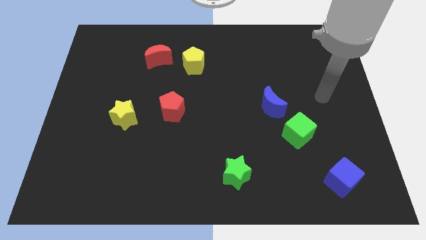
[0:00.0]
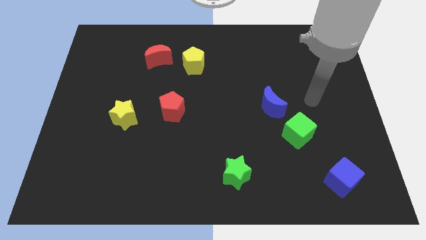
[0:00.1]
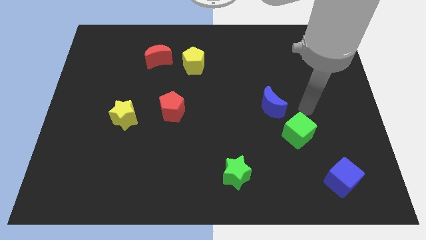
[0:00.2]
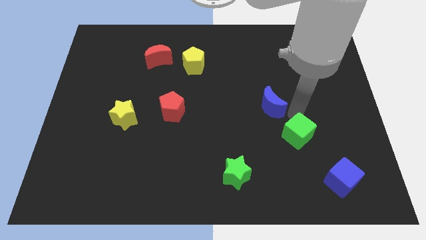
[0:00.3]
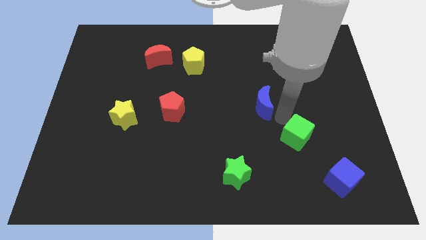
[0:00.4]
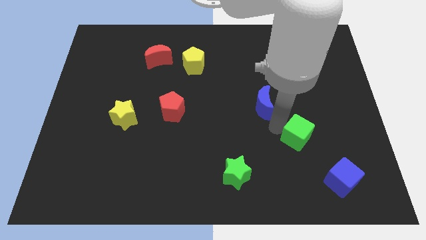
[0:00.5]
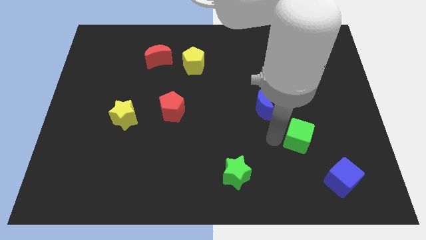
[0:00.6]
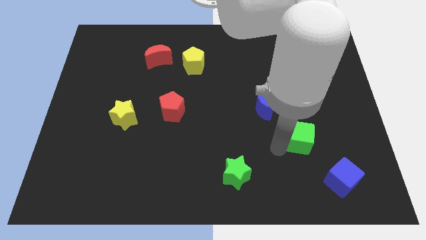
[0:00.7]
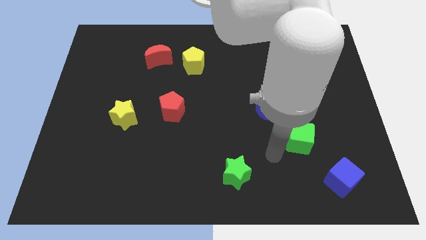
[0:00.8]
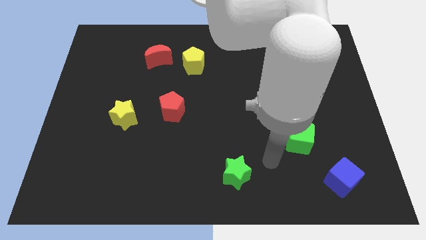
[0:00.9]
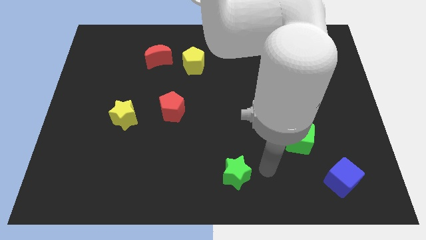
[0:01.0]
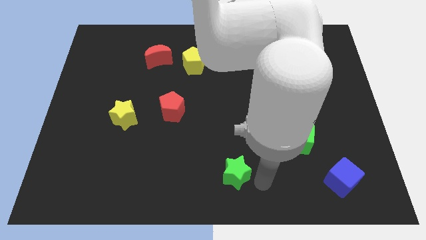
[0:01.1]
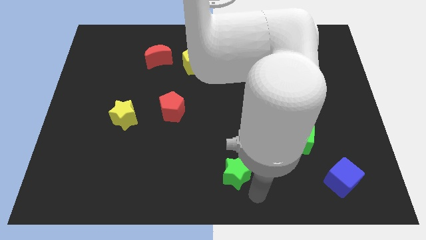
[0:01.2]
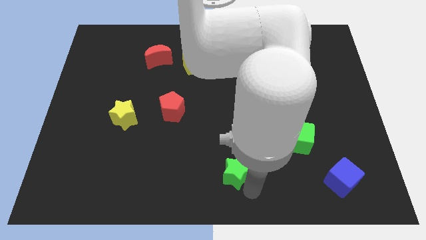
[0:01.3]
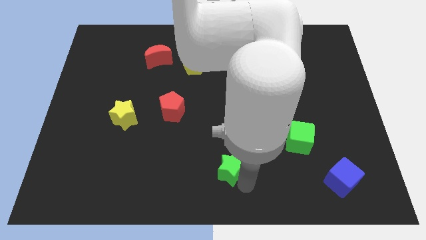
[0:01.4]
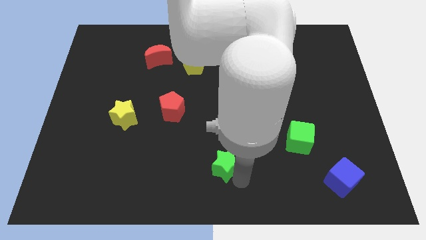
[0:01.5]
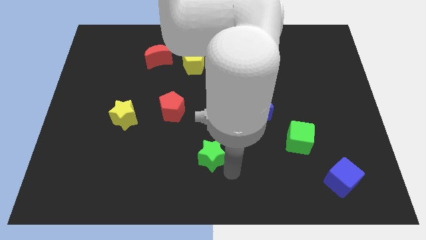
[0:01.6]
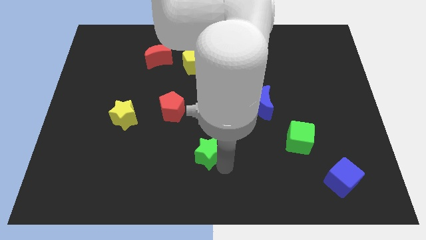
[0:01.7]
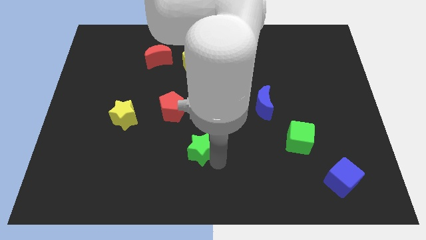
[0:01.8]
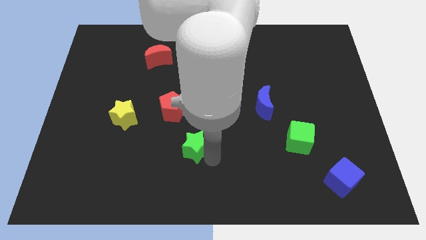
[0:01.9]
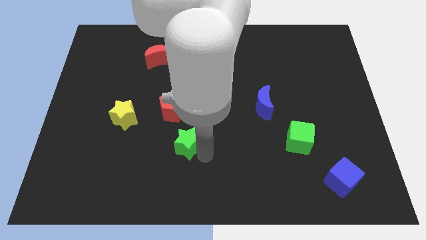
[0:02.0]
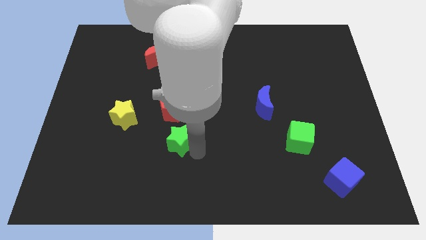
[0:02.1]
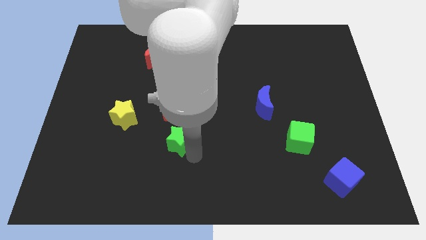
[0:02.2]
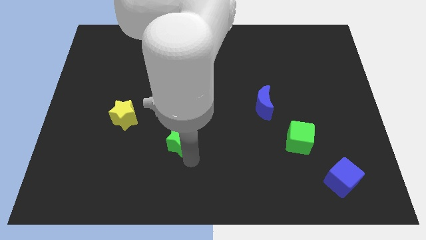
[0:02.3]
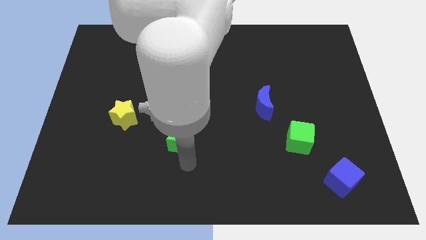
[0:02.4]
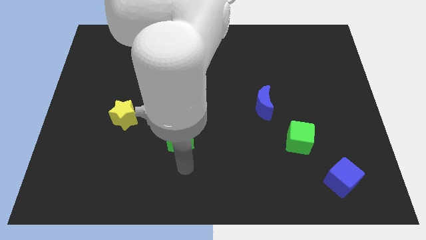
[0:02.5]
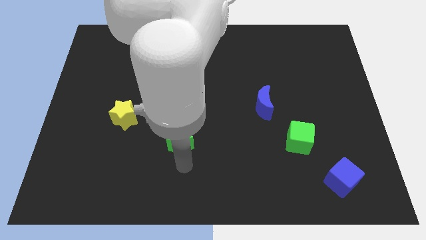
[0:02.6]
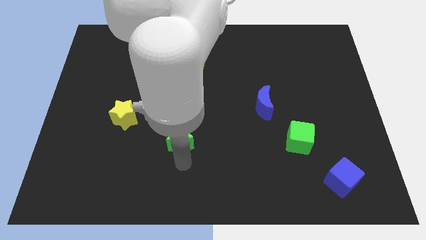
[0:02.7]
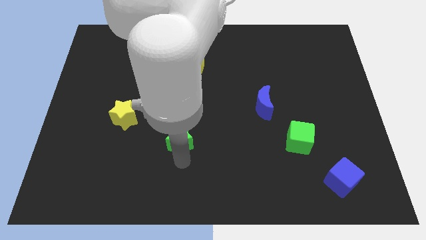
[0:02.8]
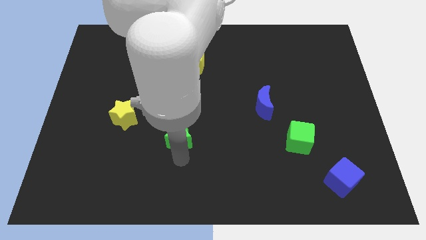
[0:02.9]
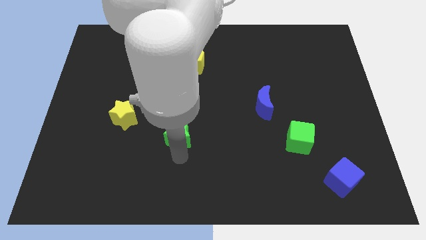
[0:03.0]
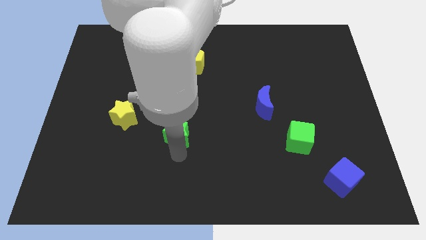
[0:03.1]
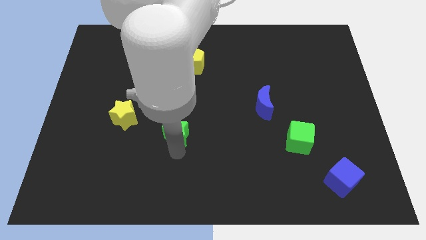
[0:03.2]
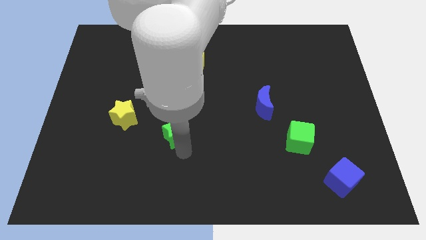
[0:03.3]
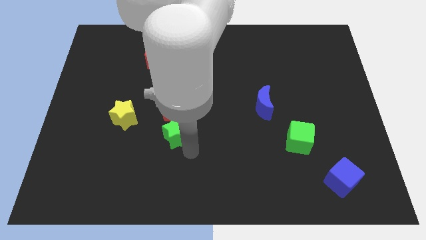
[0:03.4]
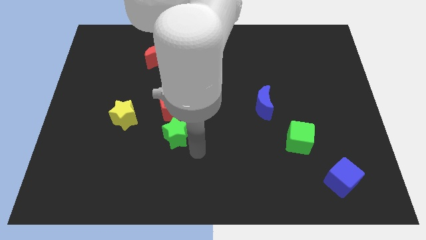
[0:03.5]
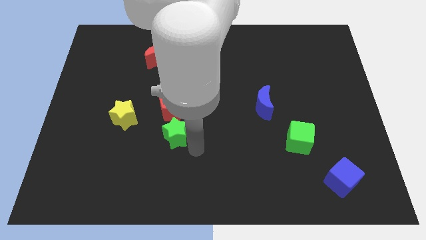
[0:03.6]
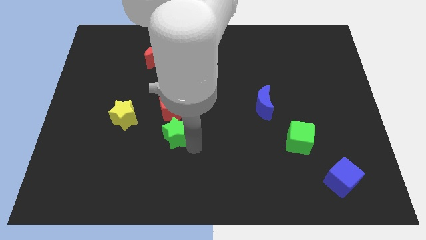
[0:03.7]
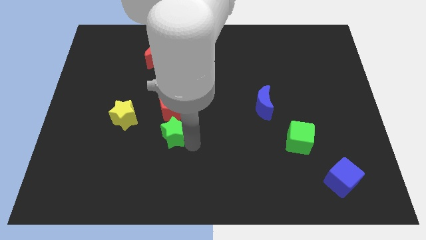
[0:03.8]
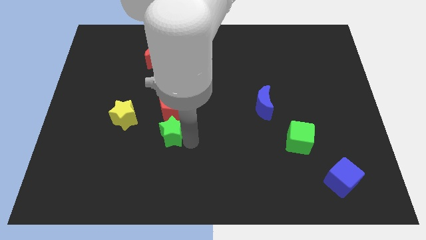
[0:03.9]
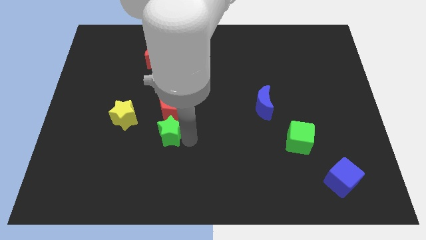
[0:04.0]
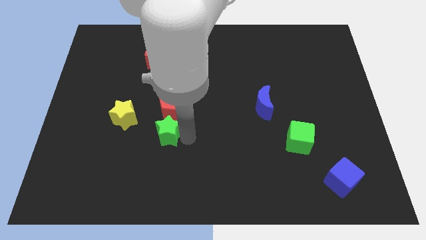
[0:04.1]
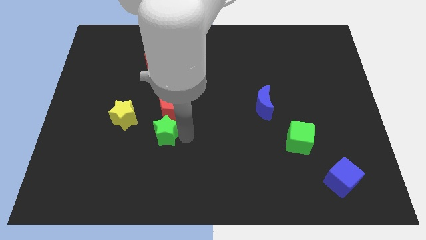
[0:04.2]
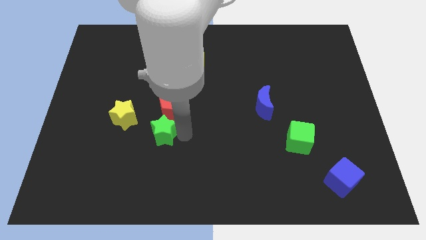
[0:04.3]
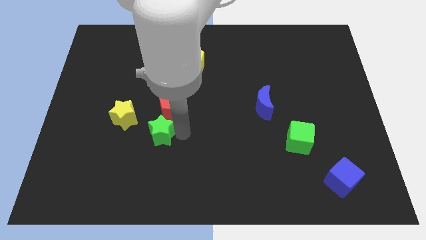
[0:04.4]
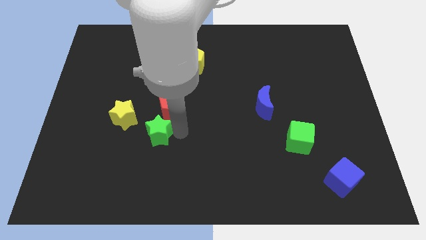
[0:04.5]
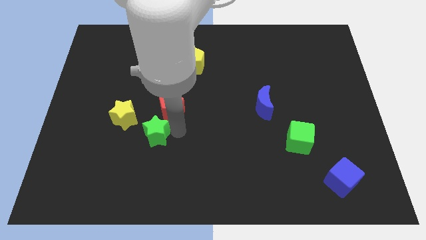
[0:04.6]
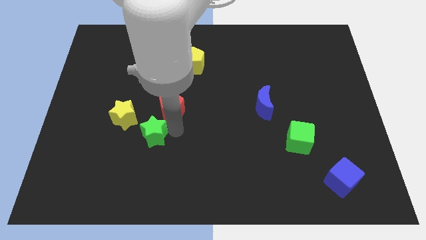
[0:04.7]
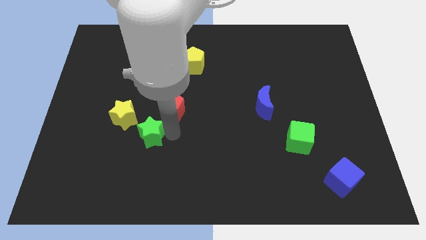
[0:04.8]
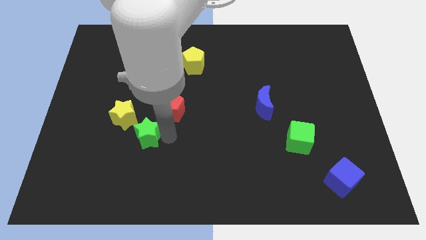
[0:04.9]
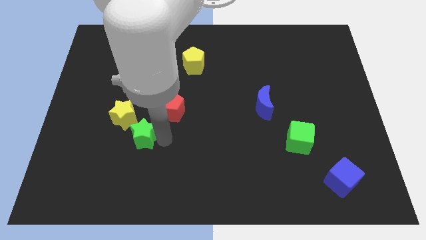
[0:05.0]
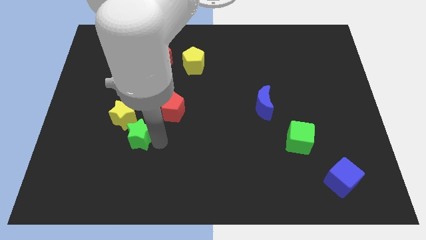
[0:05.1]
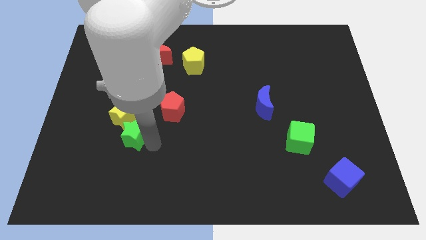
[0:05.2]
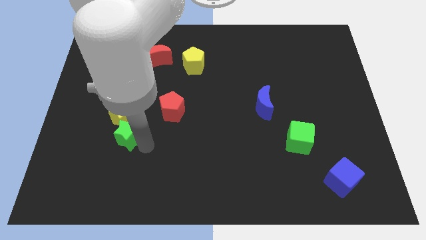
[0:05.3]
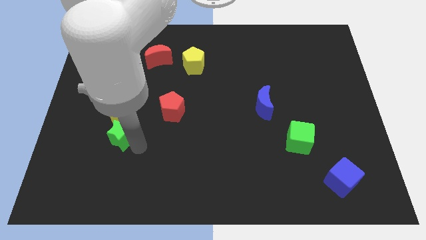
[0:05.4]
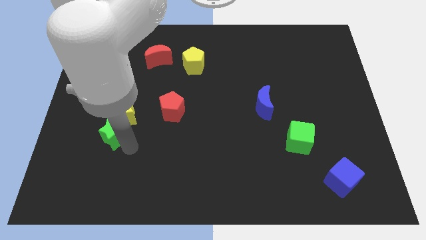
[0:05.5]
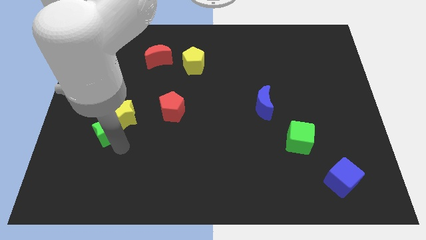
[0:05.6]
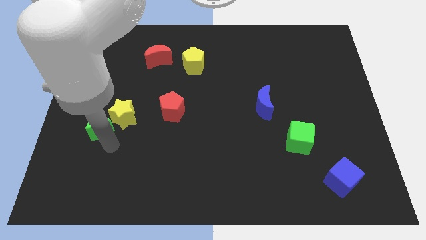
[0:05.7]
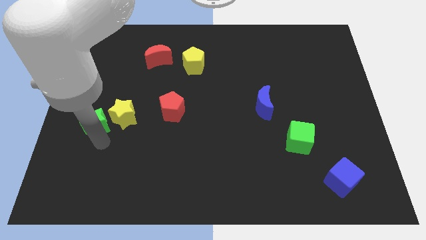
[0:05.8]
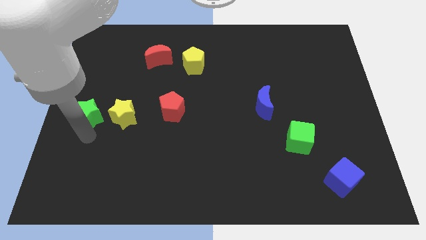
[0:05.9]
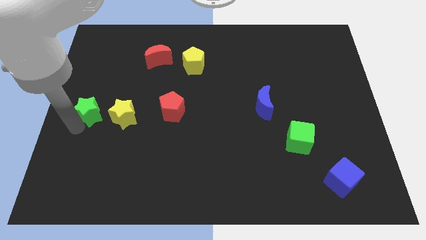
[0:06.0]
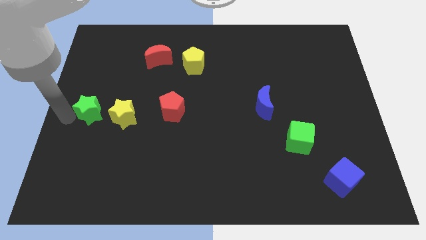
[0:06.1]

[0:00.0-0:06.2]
move the green star to the top left of the yellow star

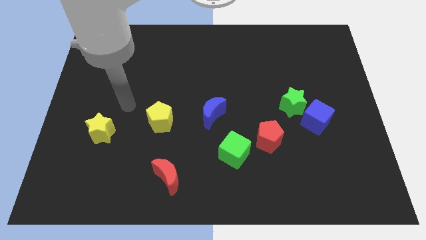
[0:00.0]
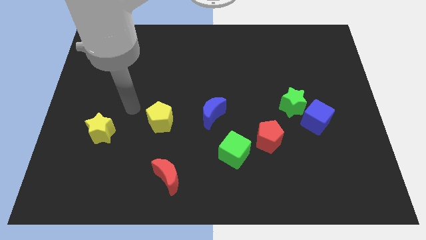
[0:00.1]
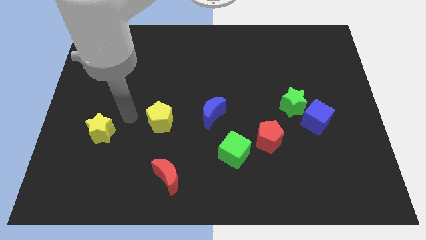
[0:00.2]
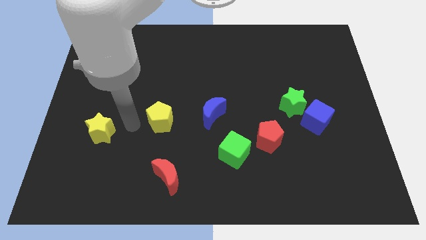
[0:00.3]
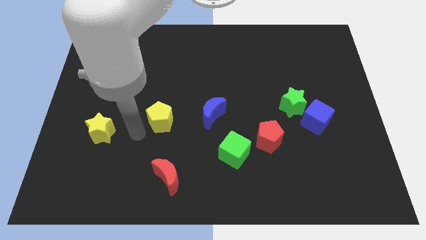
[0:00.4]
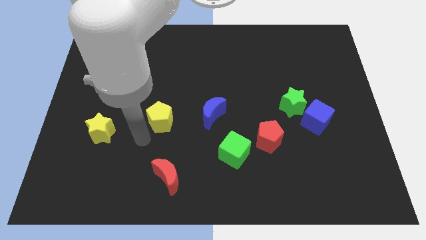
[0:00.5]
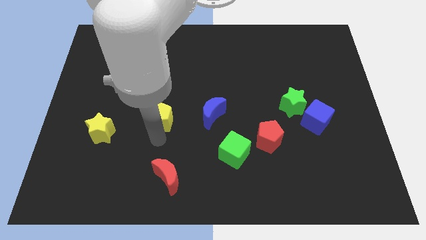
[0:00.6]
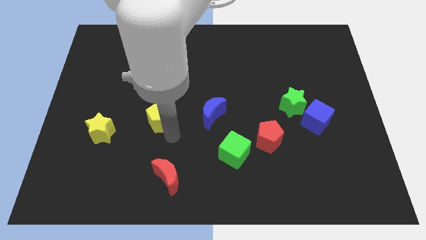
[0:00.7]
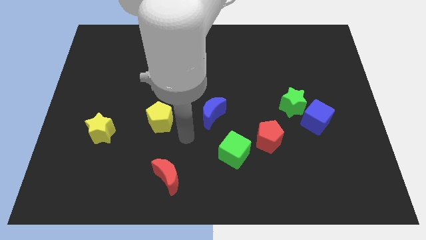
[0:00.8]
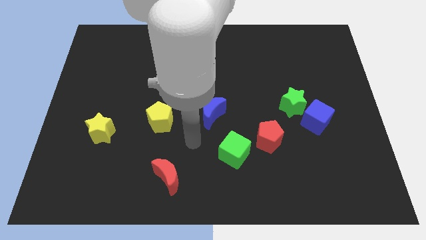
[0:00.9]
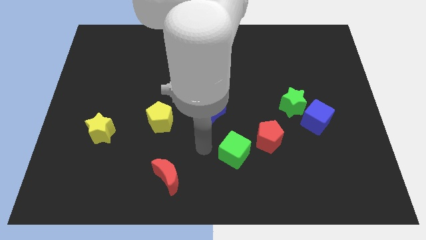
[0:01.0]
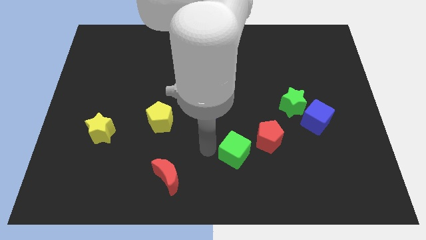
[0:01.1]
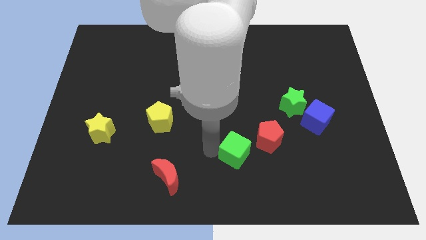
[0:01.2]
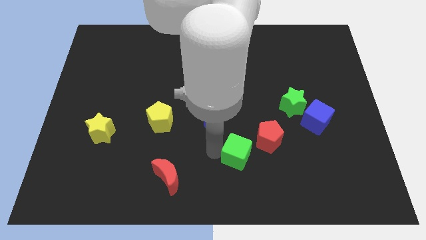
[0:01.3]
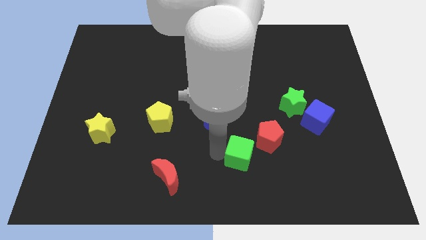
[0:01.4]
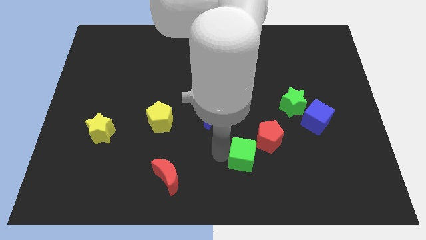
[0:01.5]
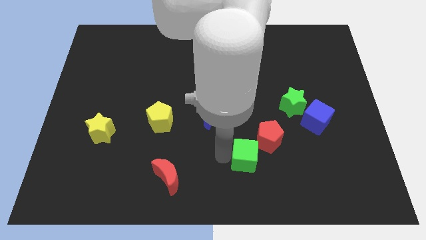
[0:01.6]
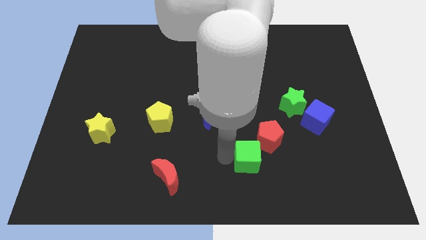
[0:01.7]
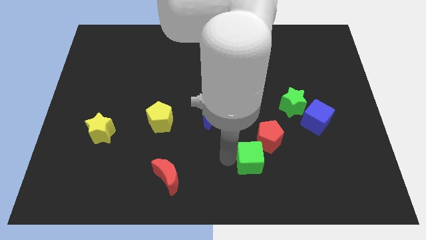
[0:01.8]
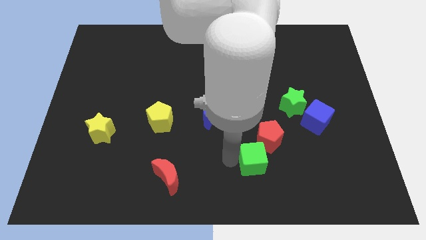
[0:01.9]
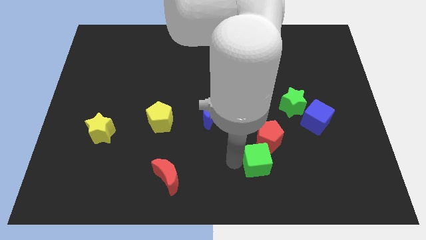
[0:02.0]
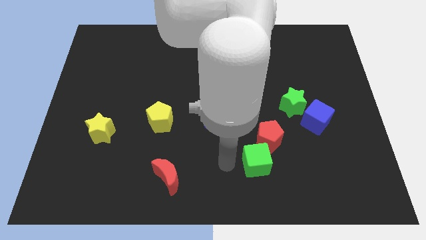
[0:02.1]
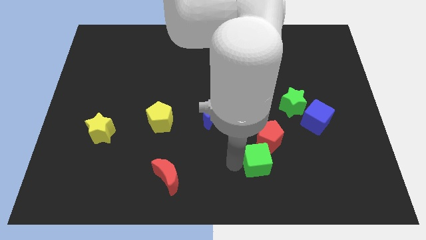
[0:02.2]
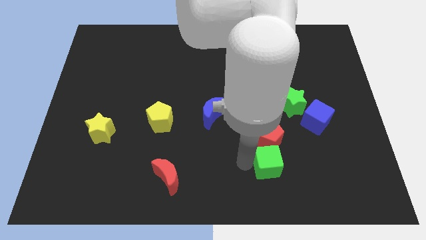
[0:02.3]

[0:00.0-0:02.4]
move the green cube to the bottom right of the red pentagon
